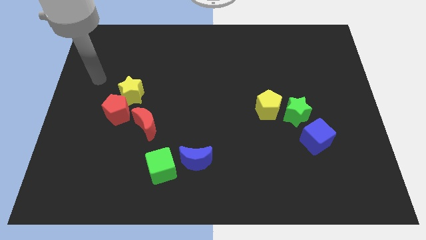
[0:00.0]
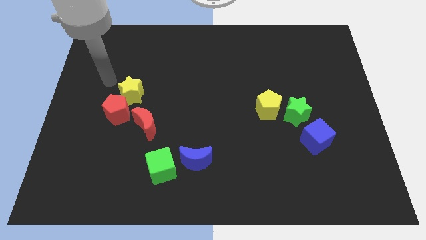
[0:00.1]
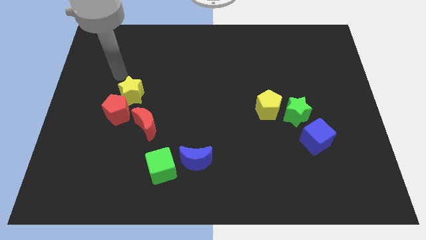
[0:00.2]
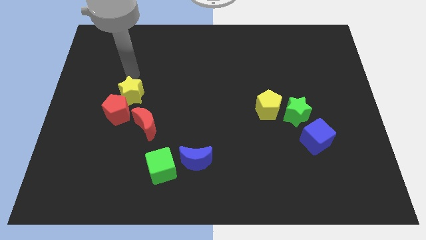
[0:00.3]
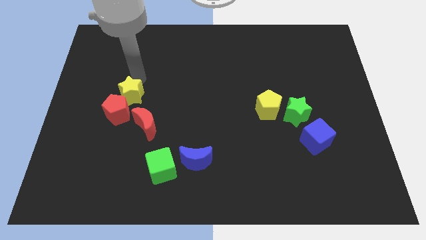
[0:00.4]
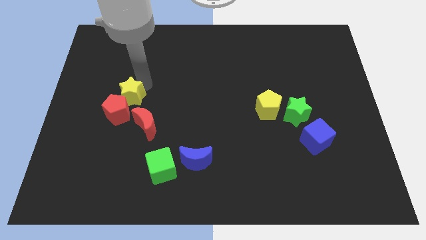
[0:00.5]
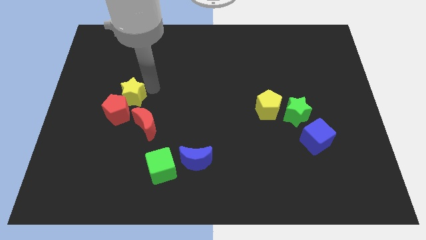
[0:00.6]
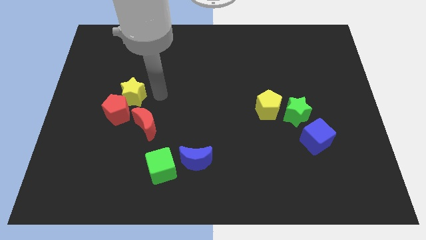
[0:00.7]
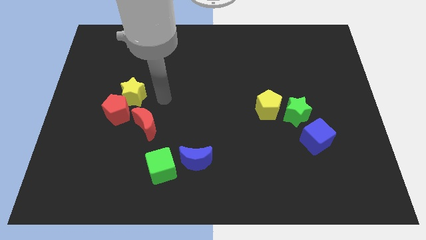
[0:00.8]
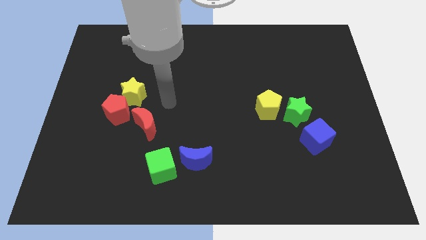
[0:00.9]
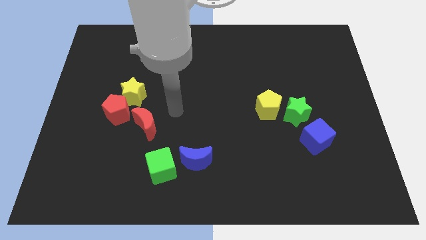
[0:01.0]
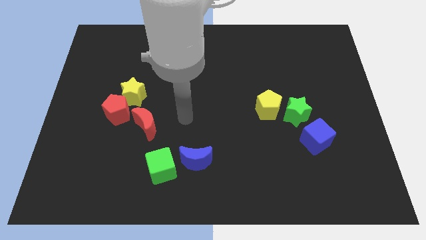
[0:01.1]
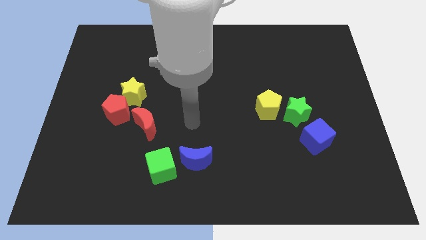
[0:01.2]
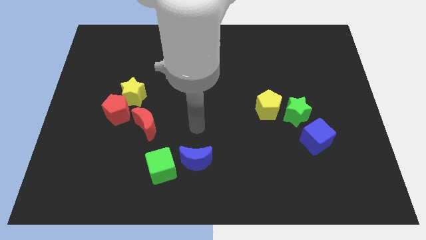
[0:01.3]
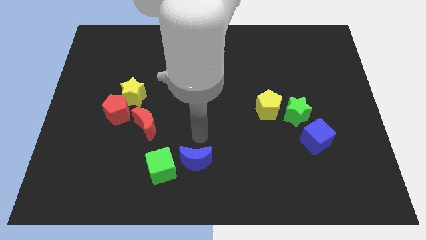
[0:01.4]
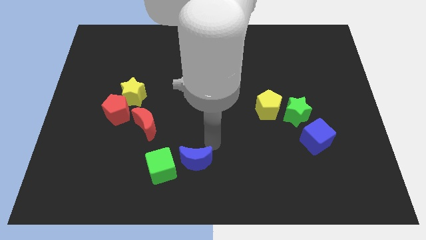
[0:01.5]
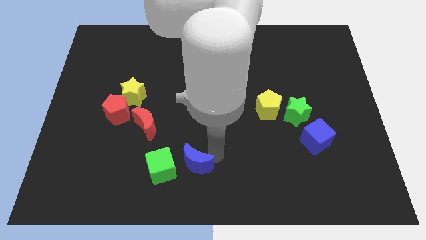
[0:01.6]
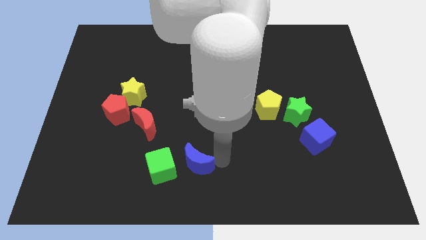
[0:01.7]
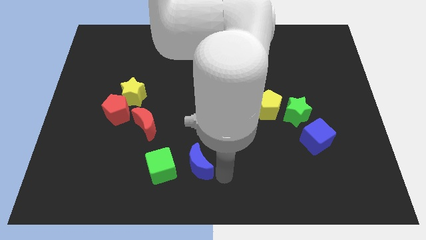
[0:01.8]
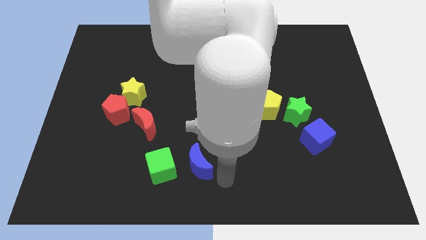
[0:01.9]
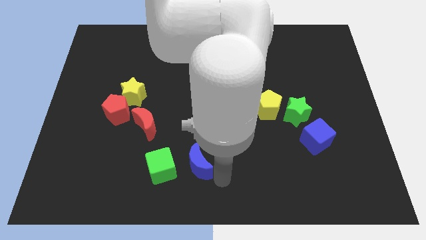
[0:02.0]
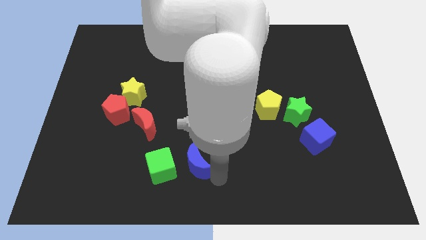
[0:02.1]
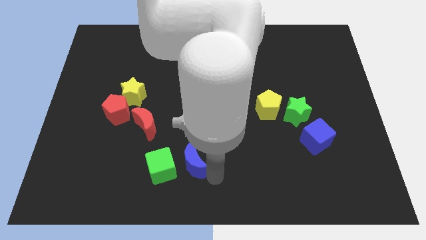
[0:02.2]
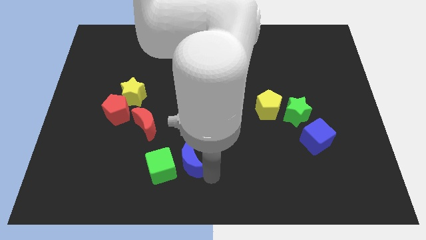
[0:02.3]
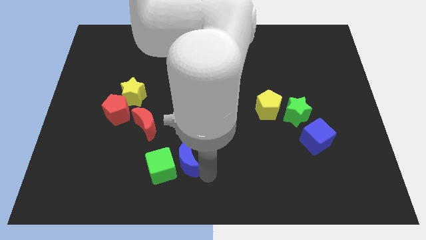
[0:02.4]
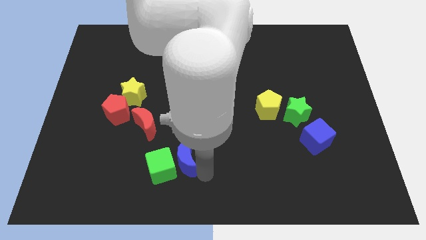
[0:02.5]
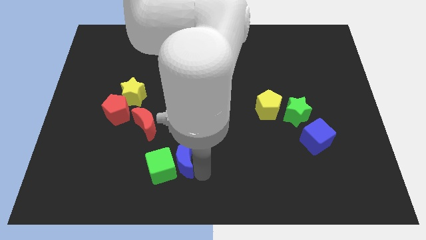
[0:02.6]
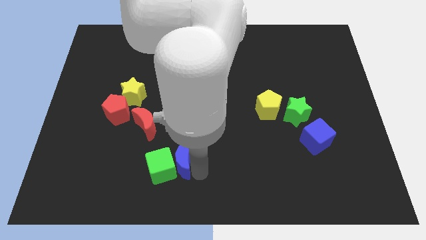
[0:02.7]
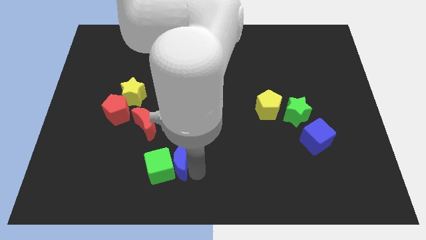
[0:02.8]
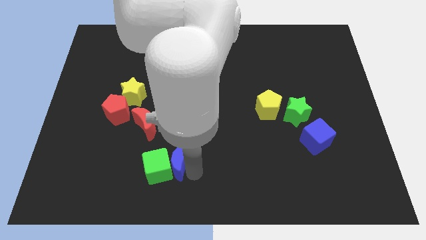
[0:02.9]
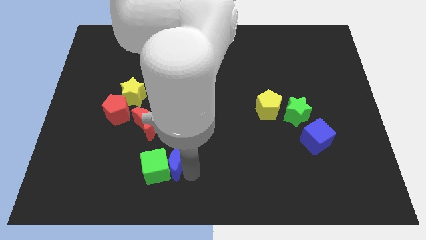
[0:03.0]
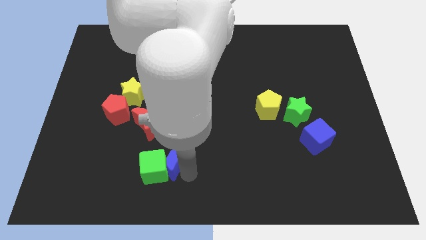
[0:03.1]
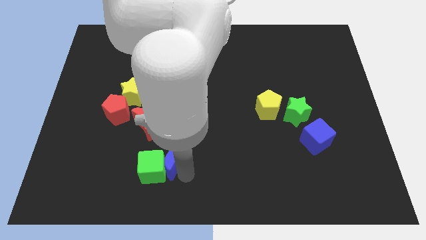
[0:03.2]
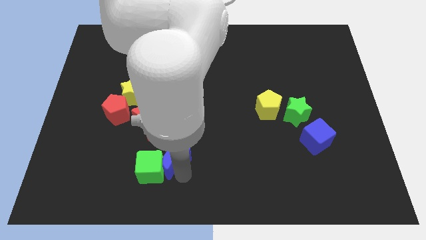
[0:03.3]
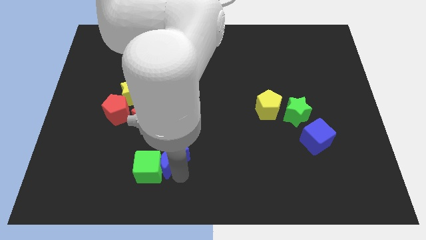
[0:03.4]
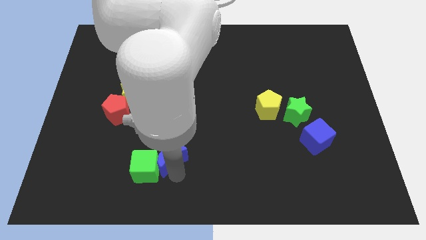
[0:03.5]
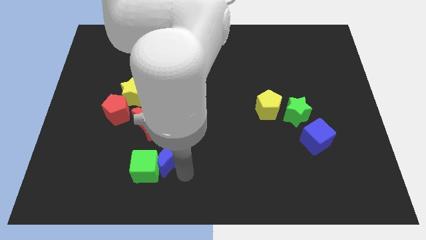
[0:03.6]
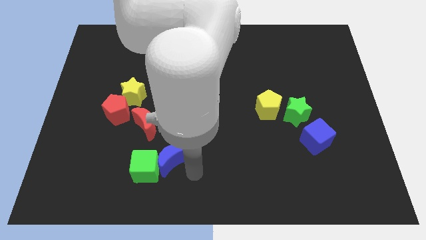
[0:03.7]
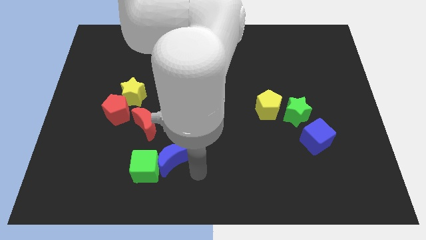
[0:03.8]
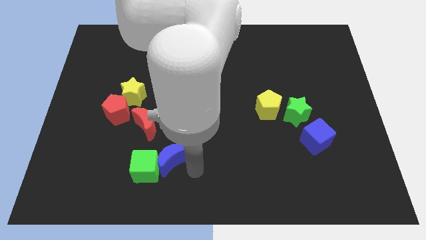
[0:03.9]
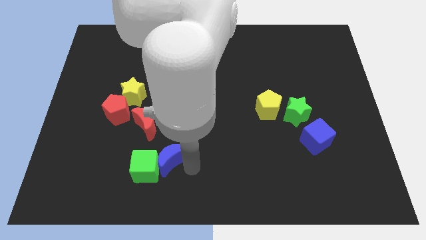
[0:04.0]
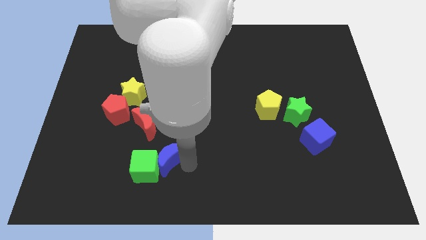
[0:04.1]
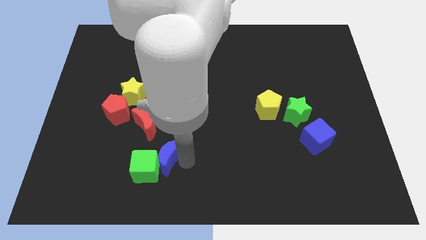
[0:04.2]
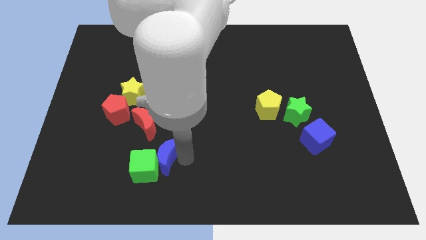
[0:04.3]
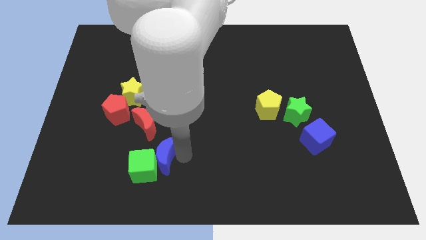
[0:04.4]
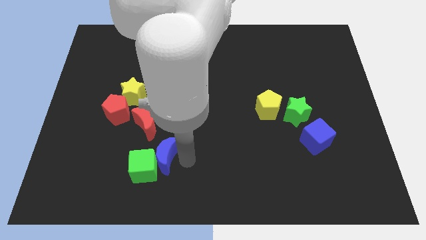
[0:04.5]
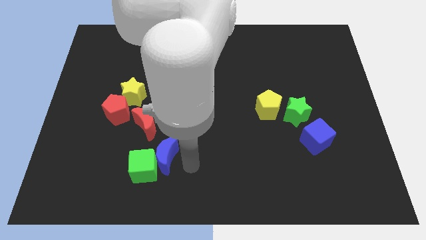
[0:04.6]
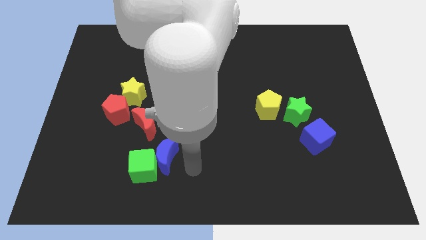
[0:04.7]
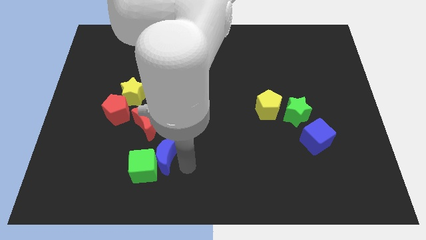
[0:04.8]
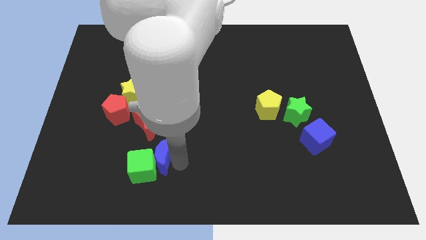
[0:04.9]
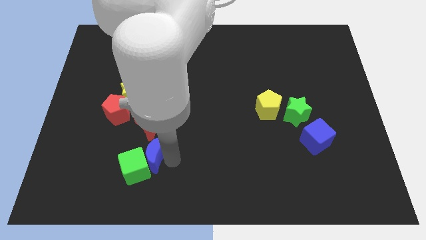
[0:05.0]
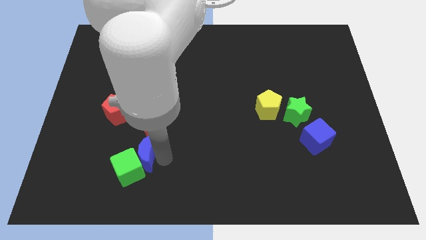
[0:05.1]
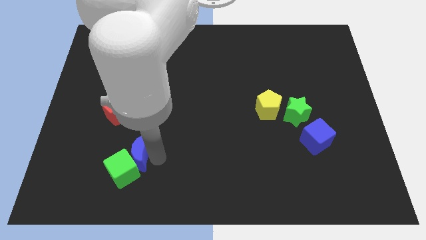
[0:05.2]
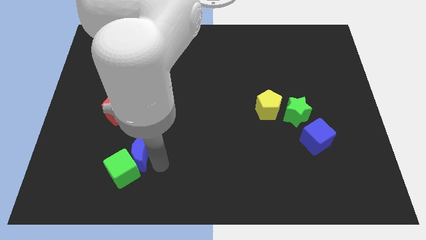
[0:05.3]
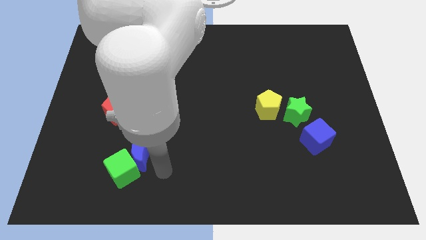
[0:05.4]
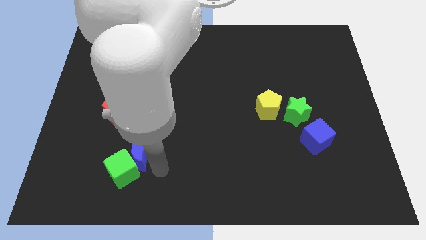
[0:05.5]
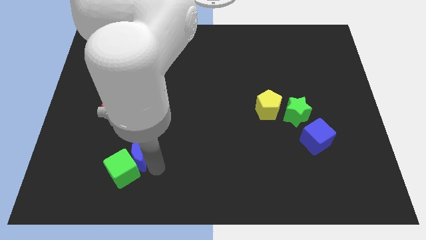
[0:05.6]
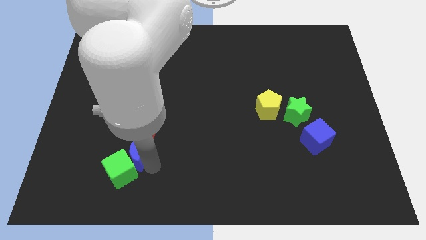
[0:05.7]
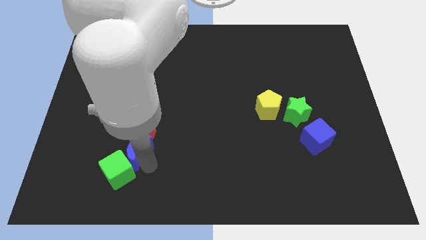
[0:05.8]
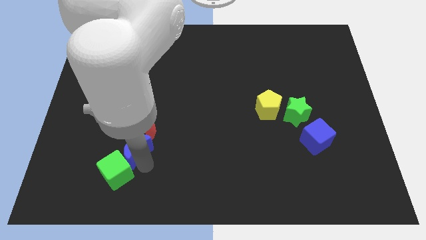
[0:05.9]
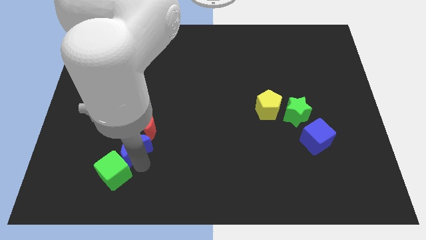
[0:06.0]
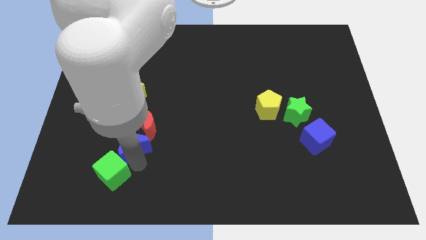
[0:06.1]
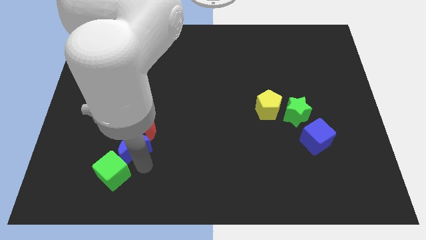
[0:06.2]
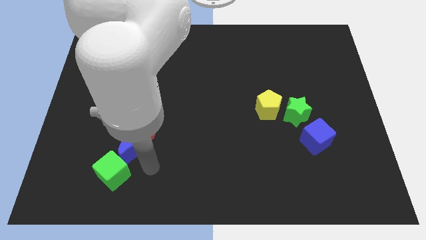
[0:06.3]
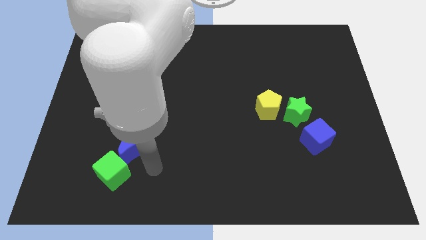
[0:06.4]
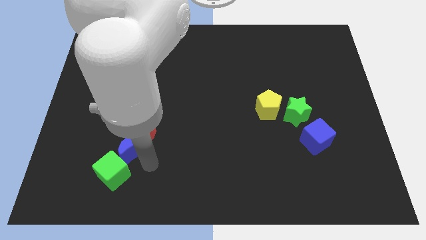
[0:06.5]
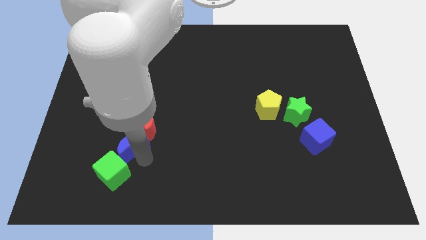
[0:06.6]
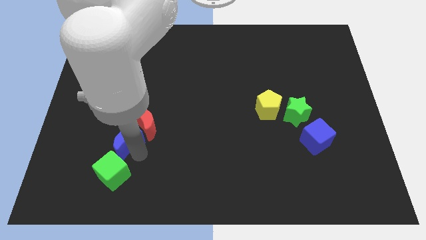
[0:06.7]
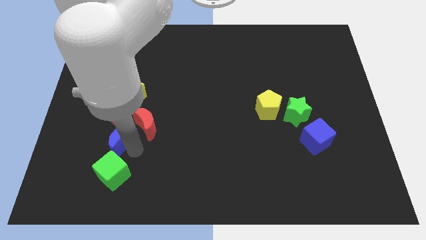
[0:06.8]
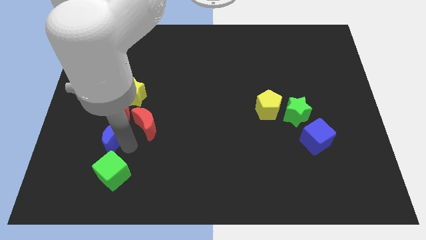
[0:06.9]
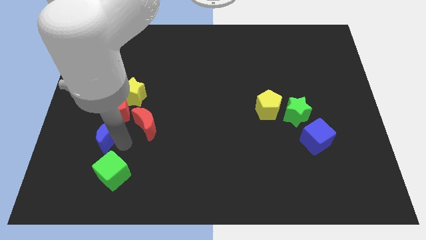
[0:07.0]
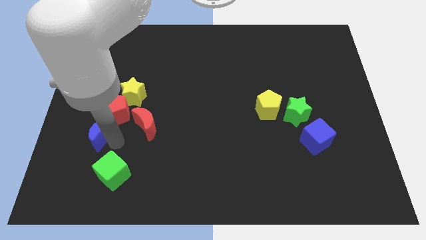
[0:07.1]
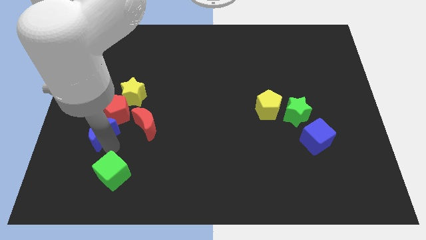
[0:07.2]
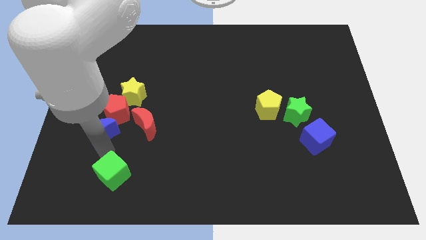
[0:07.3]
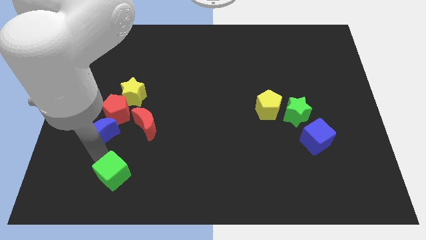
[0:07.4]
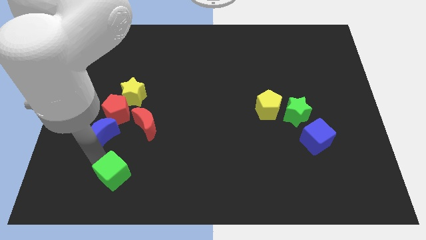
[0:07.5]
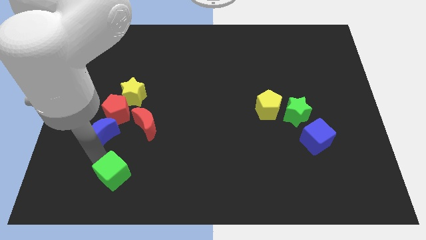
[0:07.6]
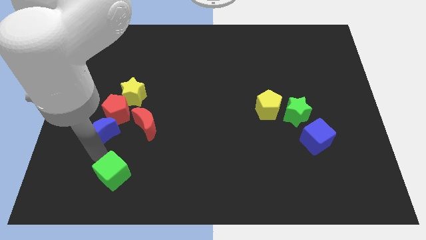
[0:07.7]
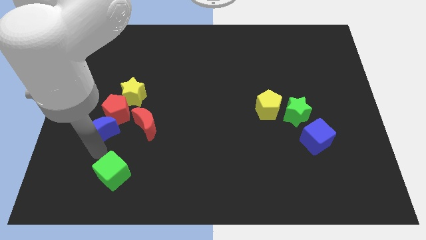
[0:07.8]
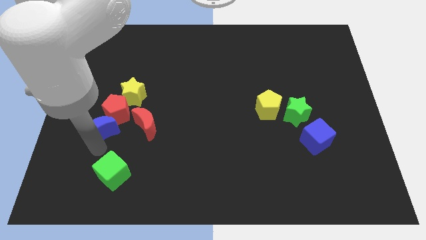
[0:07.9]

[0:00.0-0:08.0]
push the blue moon diagonally down and to the left of the yellow star
